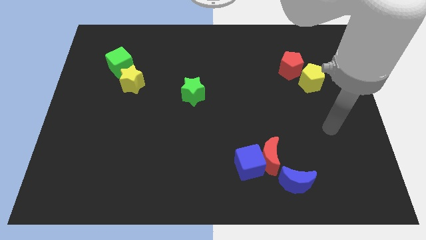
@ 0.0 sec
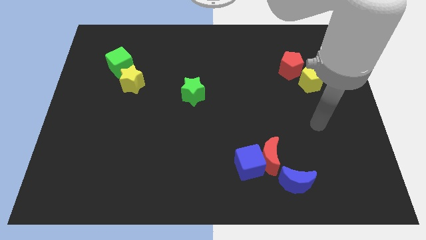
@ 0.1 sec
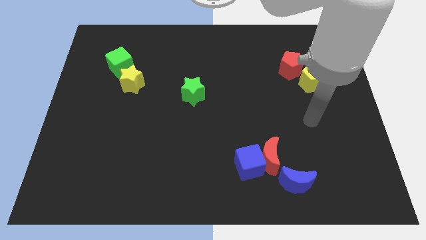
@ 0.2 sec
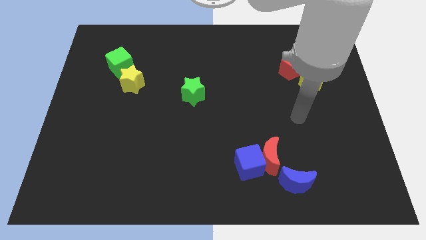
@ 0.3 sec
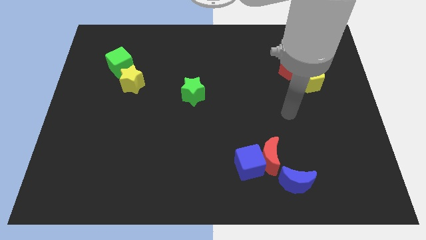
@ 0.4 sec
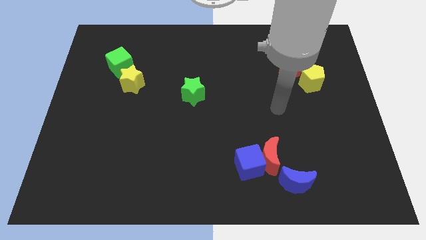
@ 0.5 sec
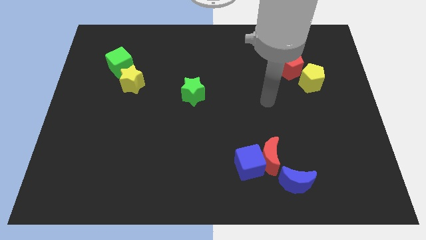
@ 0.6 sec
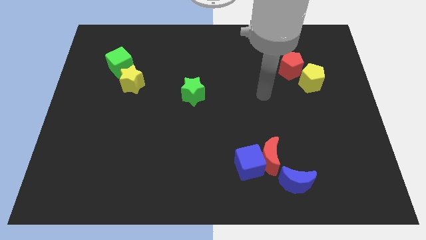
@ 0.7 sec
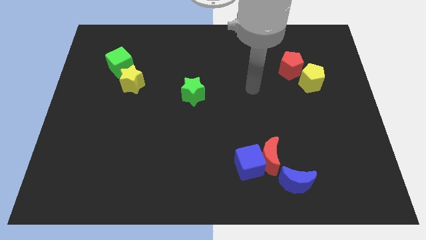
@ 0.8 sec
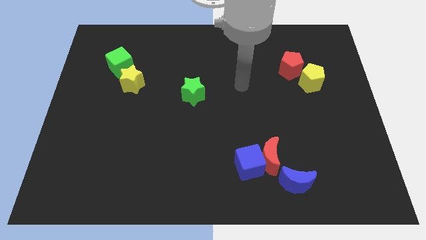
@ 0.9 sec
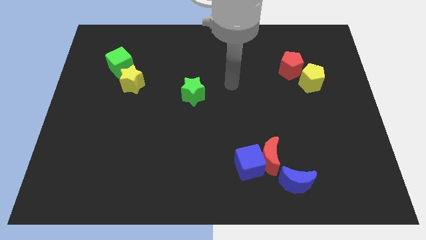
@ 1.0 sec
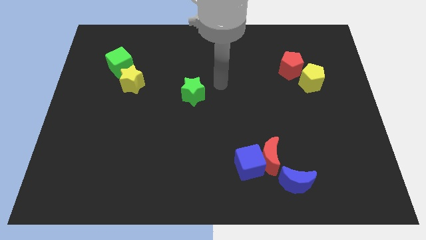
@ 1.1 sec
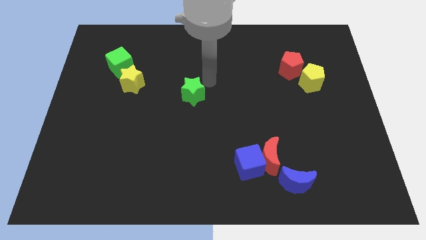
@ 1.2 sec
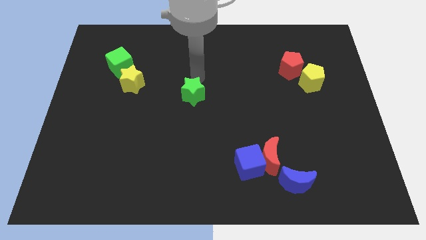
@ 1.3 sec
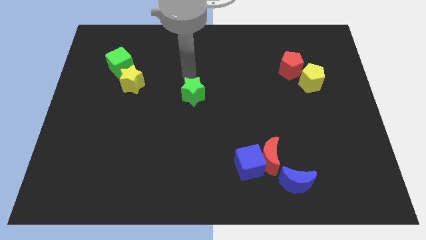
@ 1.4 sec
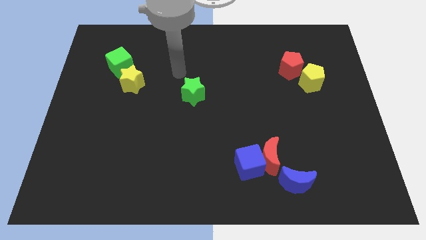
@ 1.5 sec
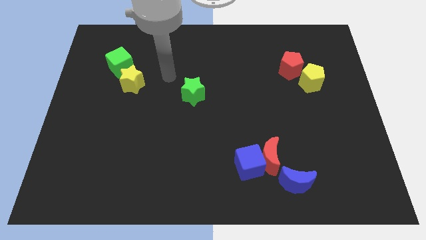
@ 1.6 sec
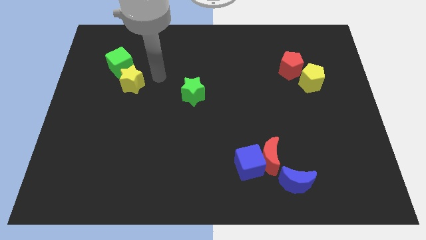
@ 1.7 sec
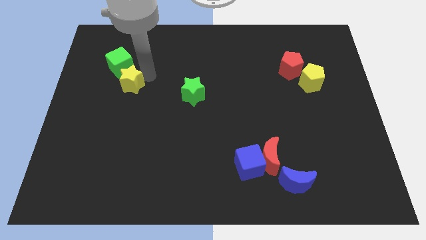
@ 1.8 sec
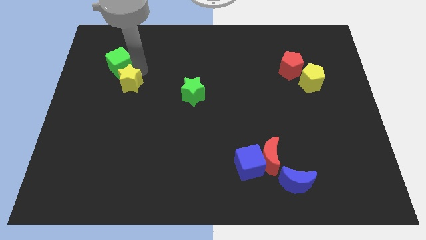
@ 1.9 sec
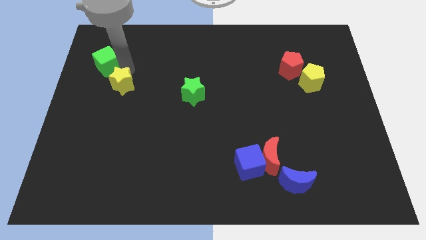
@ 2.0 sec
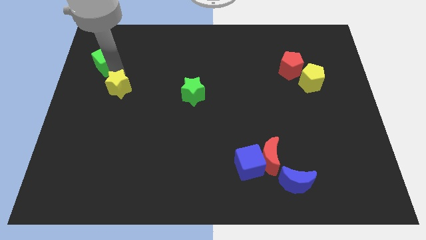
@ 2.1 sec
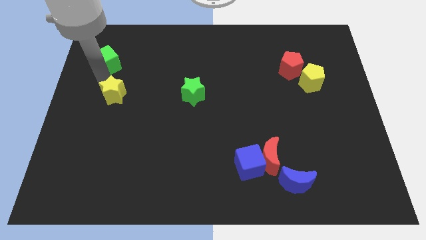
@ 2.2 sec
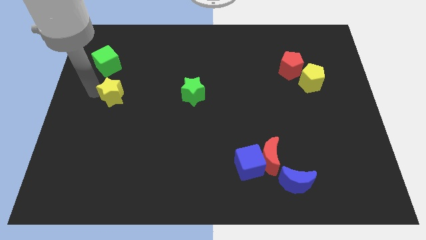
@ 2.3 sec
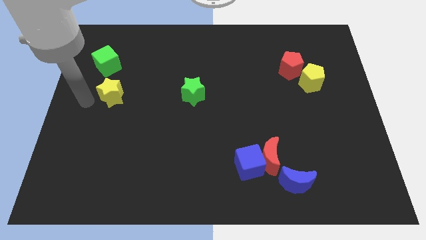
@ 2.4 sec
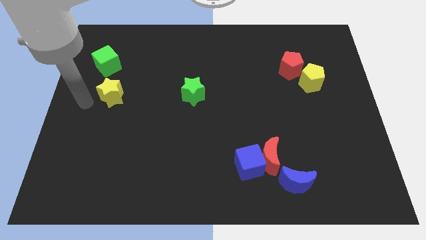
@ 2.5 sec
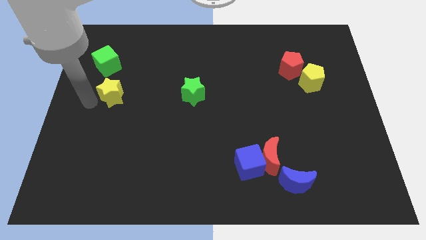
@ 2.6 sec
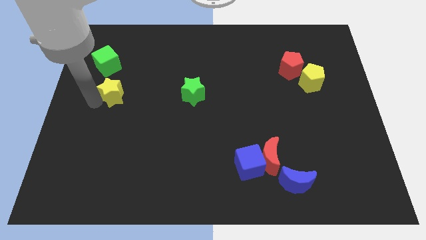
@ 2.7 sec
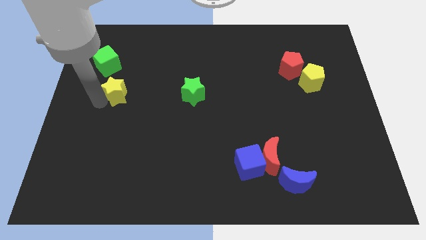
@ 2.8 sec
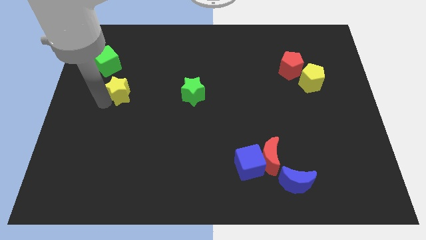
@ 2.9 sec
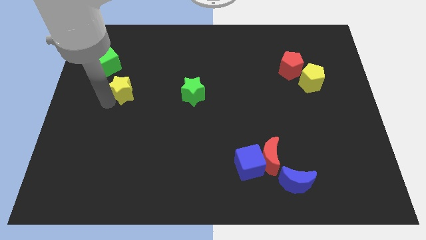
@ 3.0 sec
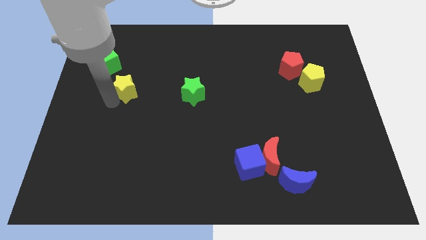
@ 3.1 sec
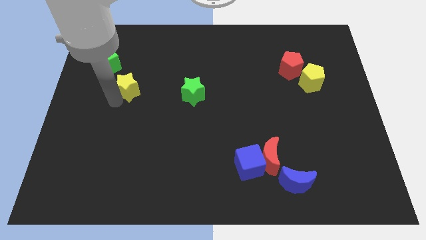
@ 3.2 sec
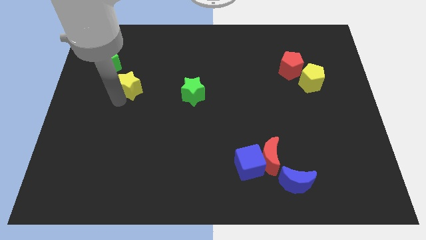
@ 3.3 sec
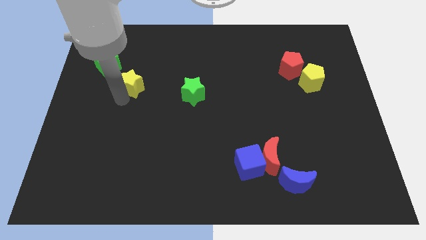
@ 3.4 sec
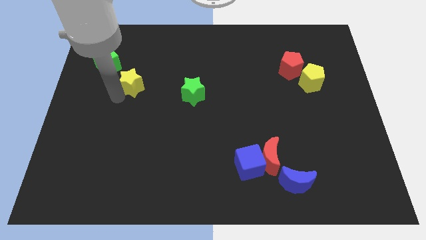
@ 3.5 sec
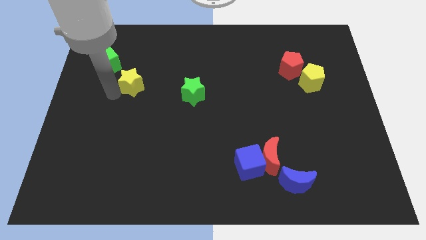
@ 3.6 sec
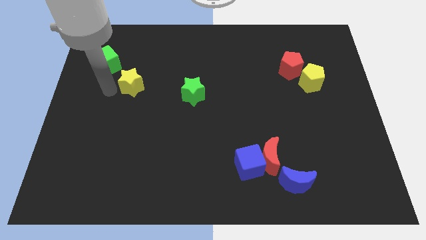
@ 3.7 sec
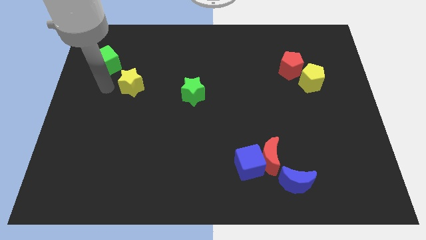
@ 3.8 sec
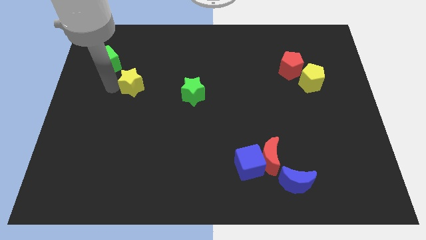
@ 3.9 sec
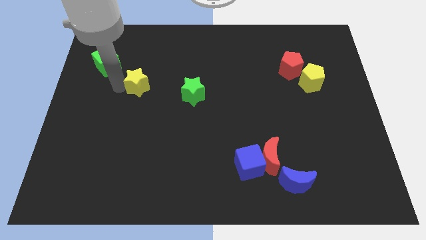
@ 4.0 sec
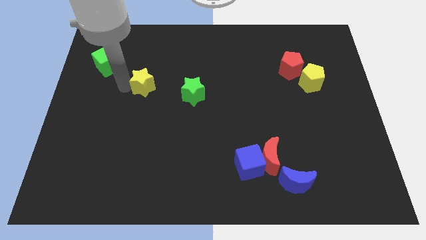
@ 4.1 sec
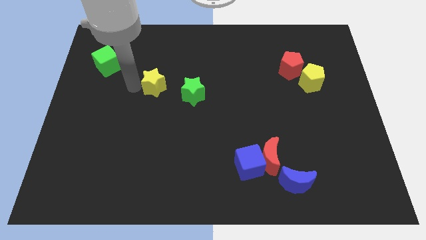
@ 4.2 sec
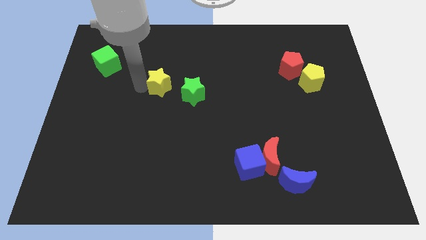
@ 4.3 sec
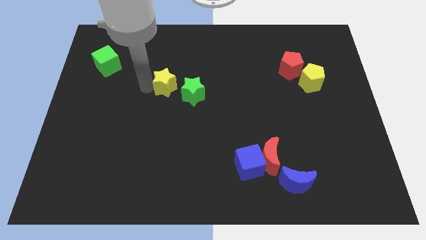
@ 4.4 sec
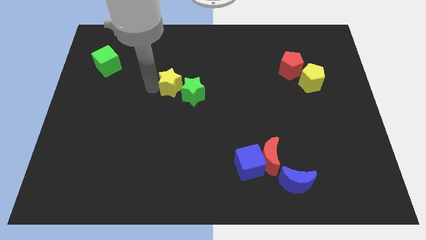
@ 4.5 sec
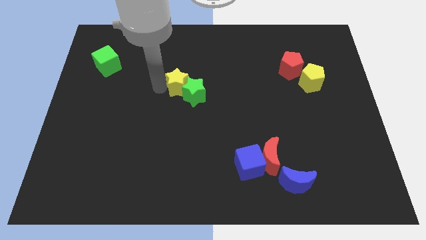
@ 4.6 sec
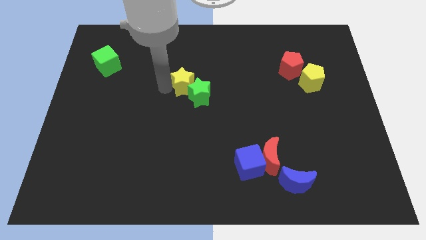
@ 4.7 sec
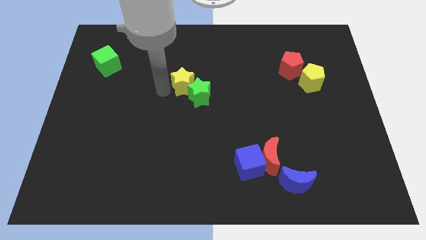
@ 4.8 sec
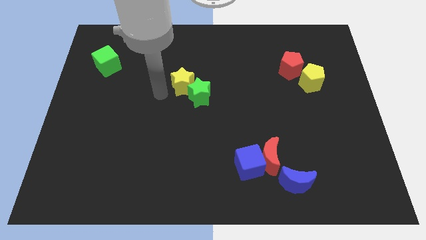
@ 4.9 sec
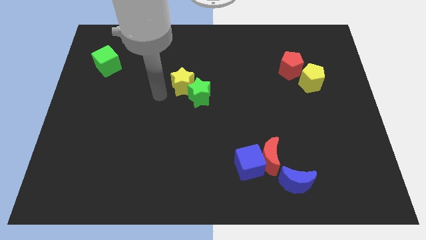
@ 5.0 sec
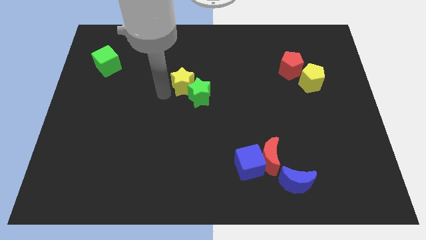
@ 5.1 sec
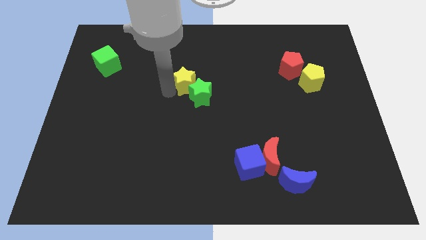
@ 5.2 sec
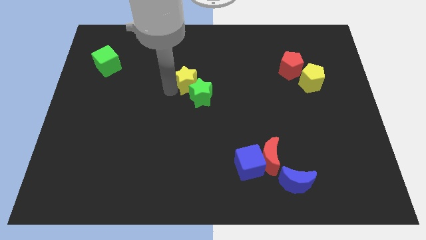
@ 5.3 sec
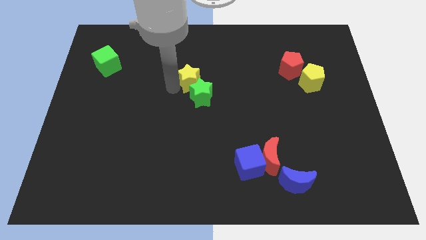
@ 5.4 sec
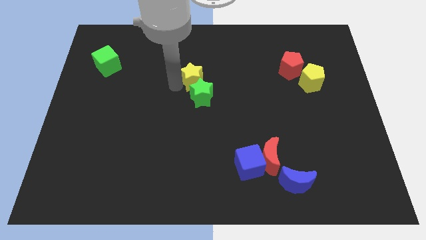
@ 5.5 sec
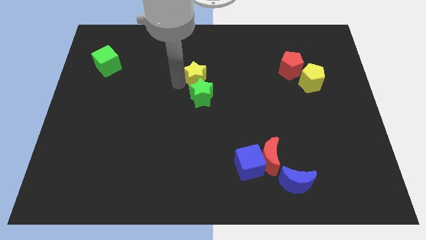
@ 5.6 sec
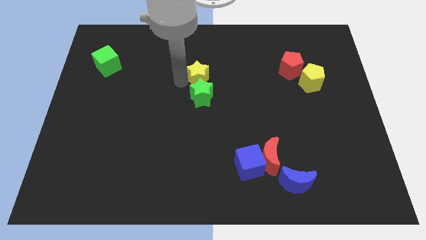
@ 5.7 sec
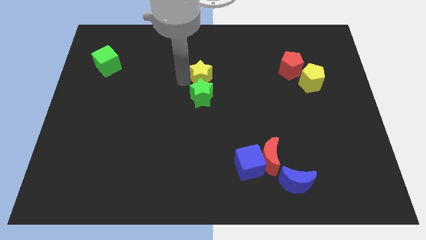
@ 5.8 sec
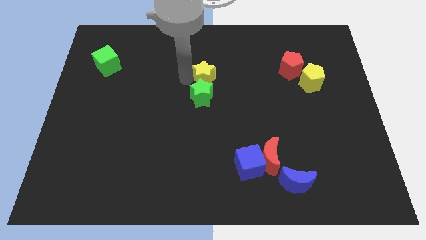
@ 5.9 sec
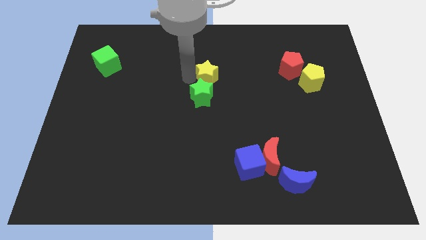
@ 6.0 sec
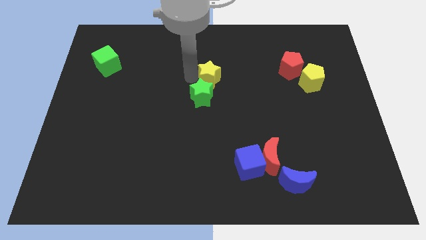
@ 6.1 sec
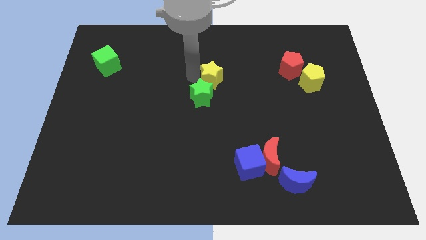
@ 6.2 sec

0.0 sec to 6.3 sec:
move the yellow star right

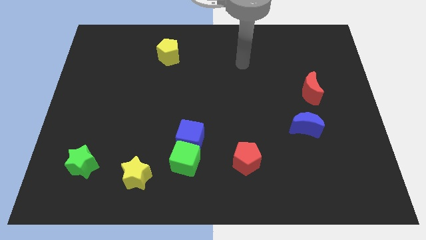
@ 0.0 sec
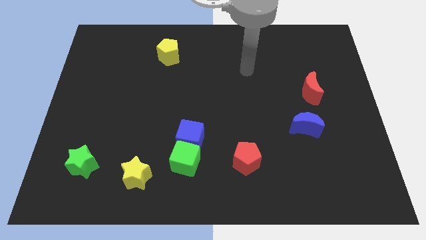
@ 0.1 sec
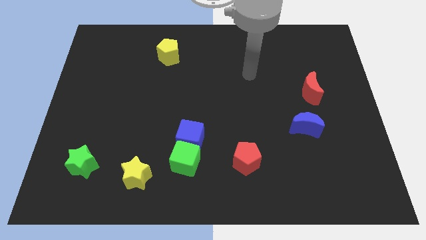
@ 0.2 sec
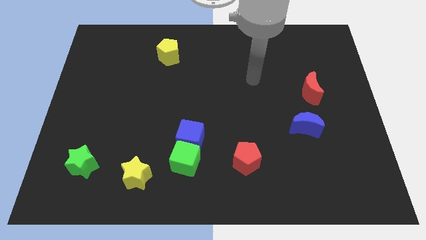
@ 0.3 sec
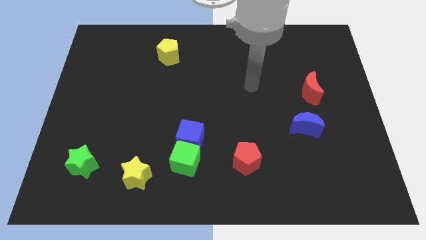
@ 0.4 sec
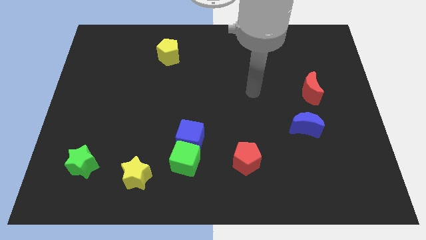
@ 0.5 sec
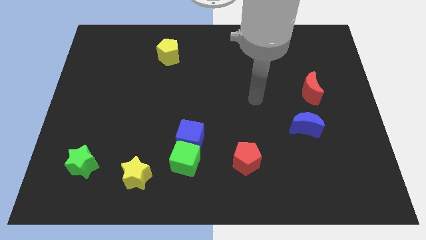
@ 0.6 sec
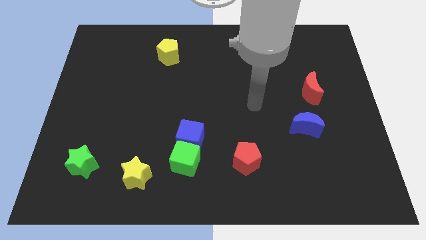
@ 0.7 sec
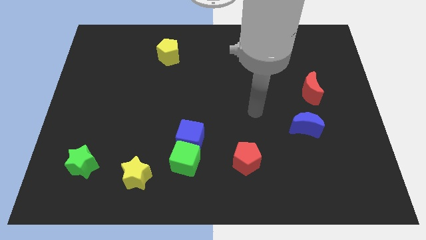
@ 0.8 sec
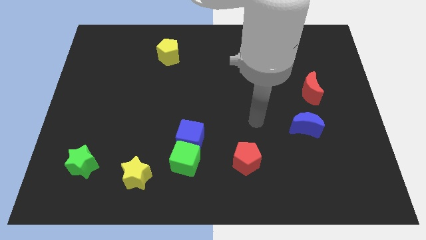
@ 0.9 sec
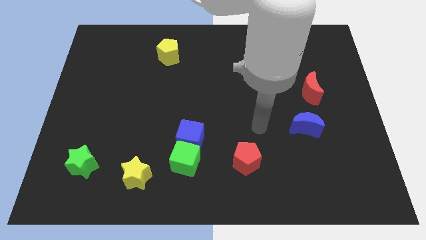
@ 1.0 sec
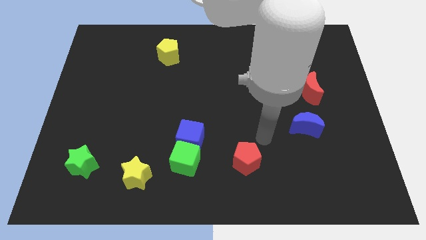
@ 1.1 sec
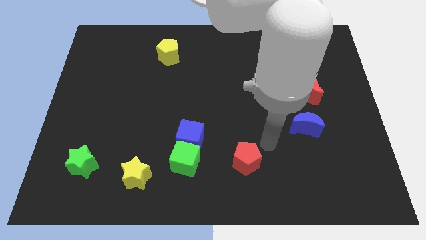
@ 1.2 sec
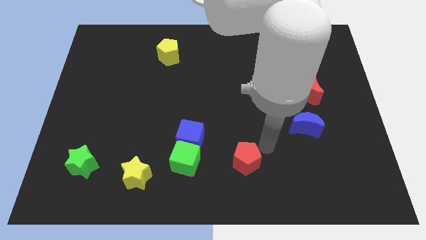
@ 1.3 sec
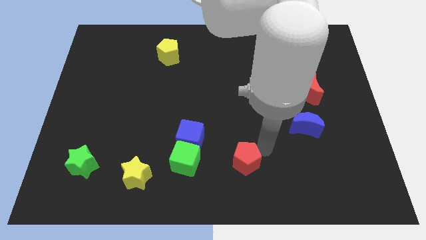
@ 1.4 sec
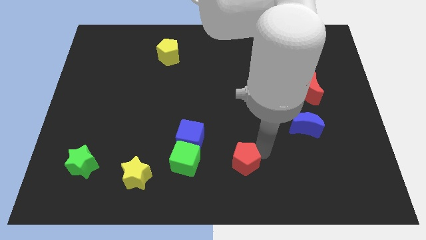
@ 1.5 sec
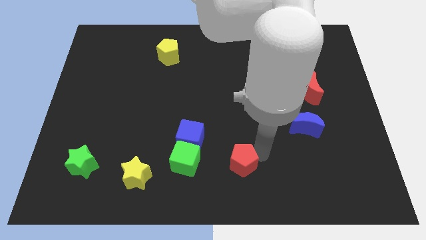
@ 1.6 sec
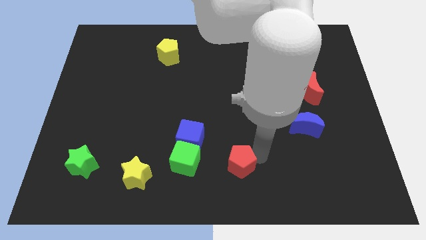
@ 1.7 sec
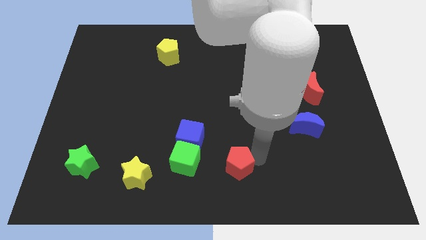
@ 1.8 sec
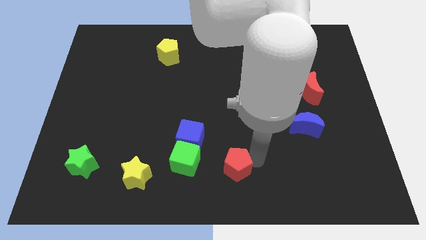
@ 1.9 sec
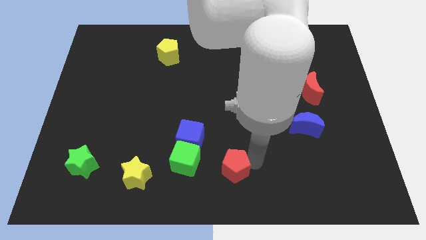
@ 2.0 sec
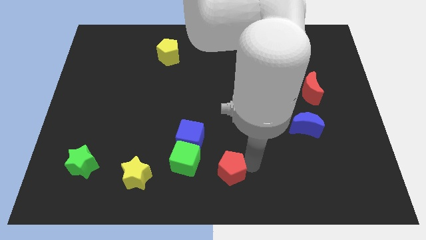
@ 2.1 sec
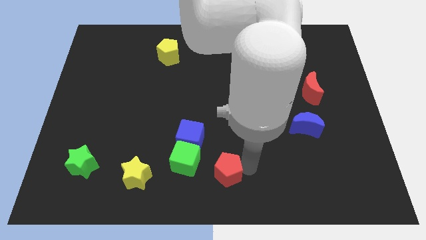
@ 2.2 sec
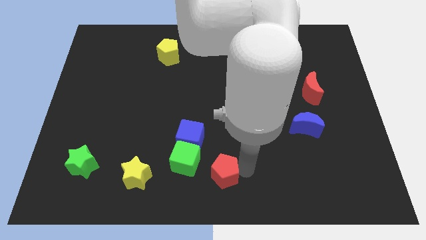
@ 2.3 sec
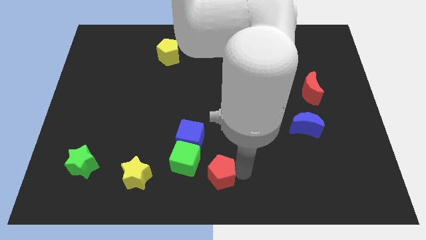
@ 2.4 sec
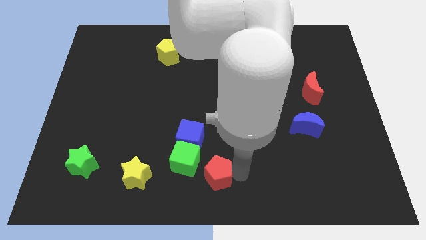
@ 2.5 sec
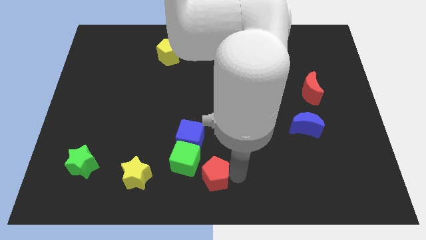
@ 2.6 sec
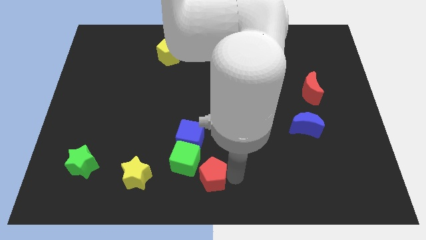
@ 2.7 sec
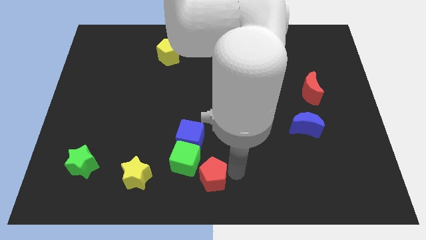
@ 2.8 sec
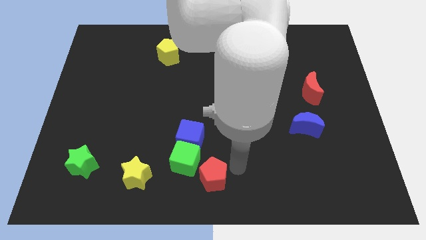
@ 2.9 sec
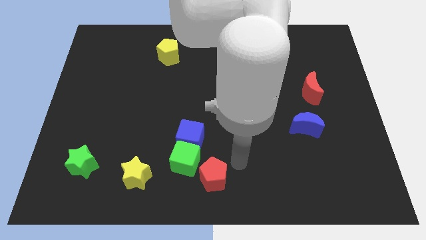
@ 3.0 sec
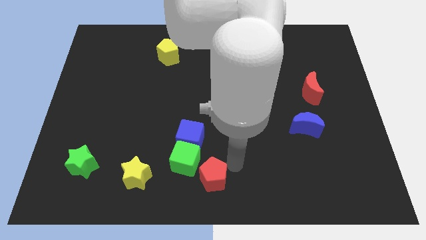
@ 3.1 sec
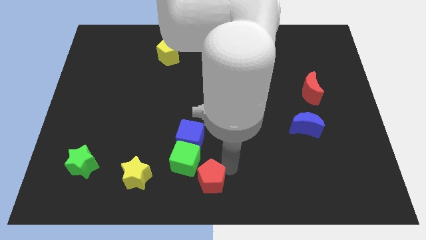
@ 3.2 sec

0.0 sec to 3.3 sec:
slide the red pentagon to the left a bit
